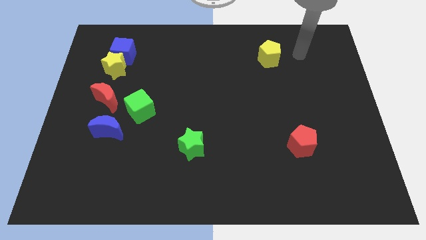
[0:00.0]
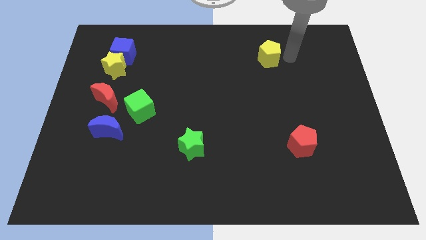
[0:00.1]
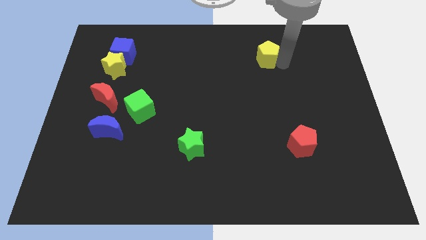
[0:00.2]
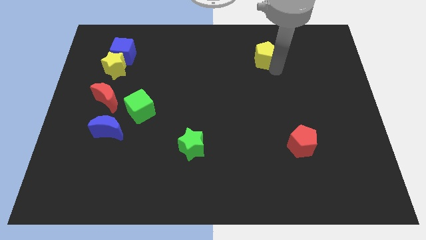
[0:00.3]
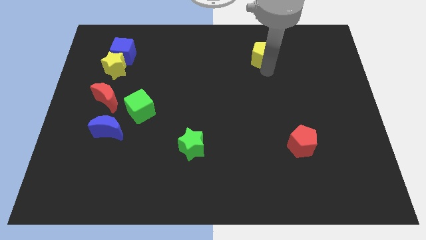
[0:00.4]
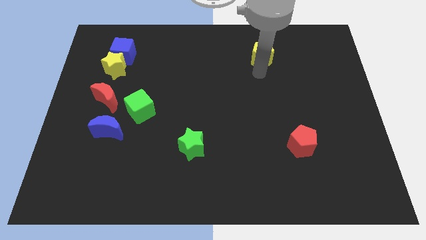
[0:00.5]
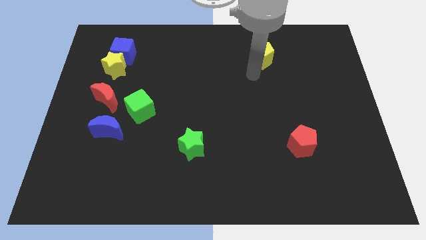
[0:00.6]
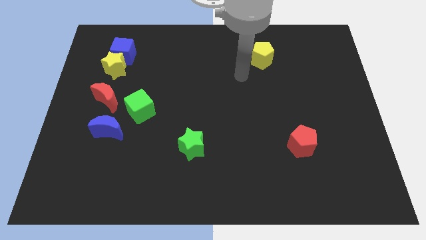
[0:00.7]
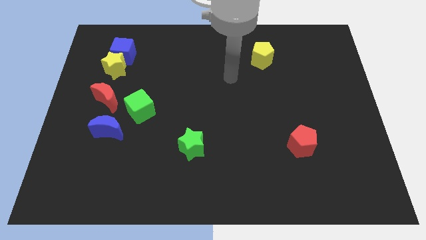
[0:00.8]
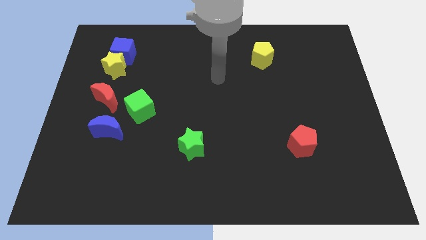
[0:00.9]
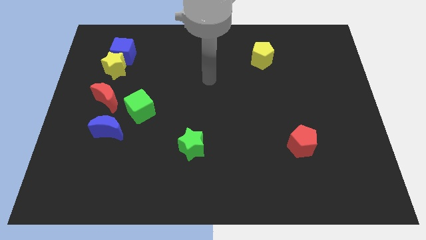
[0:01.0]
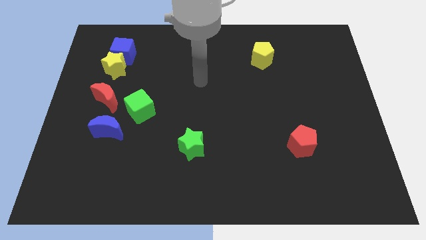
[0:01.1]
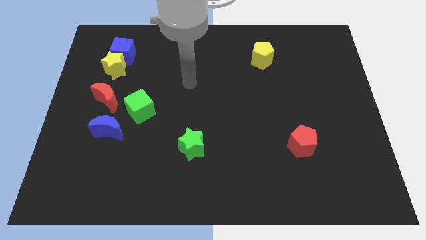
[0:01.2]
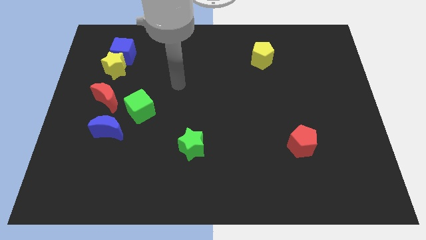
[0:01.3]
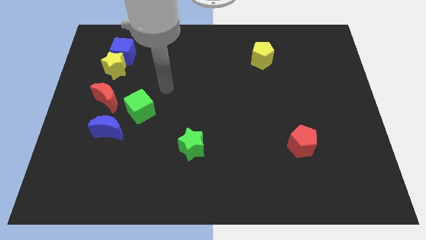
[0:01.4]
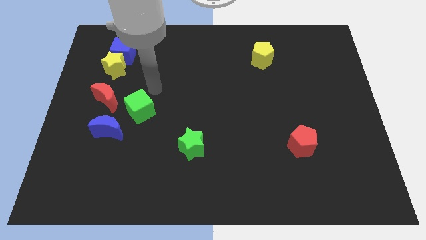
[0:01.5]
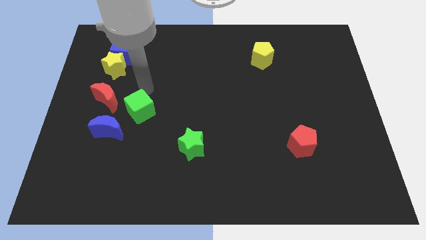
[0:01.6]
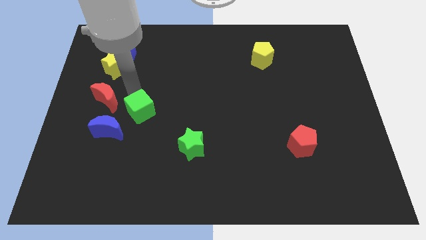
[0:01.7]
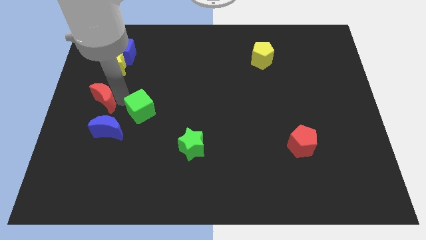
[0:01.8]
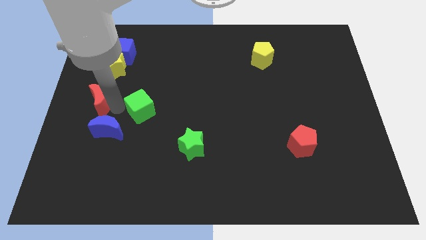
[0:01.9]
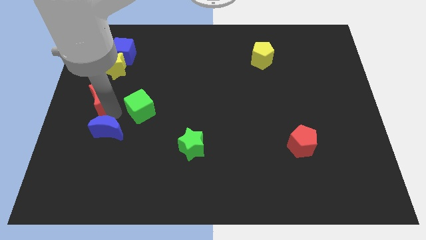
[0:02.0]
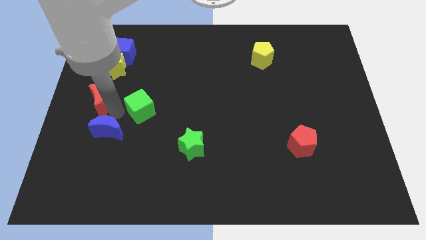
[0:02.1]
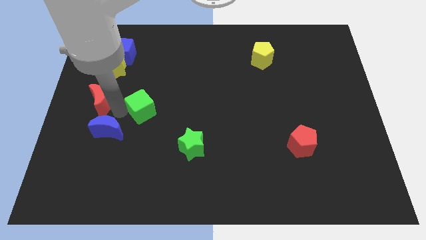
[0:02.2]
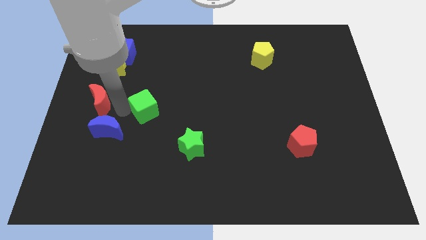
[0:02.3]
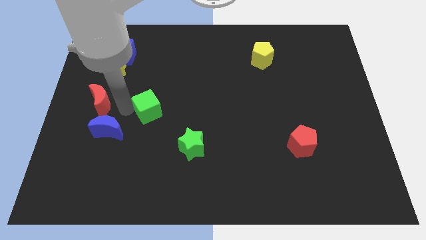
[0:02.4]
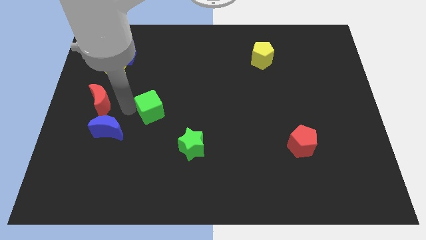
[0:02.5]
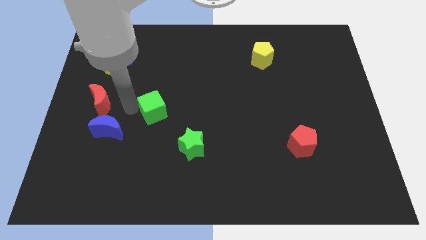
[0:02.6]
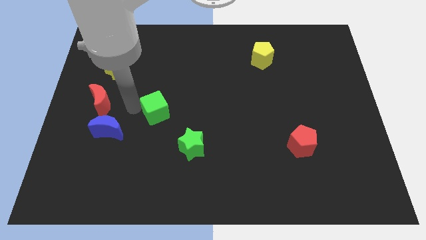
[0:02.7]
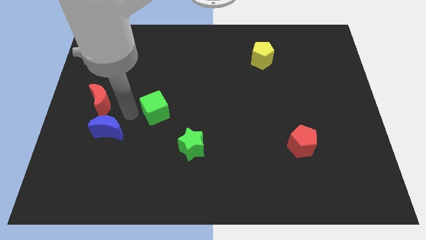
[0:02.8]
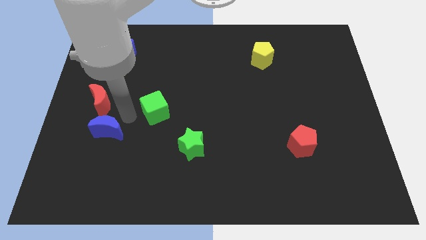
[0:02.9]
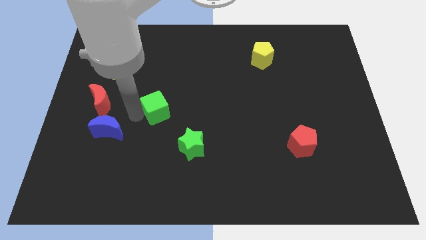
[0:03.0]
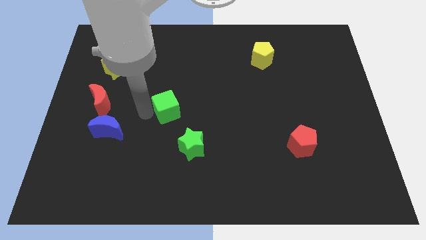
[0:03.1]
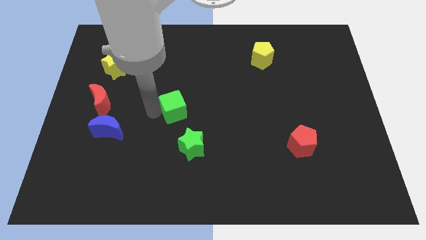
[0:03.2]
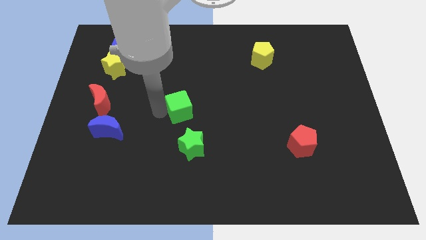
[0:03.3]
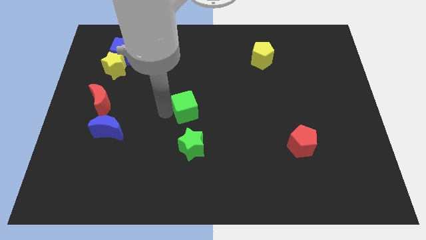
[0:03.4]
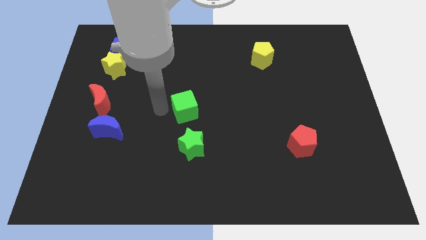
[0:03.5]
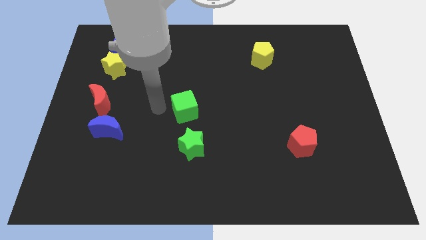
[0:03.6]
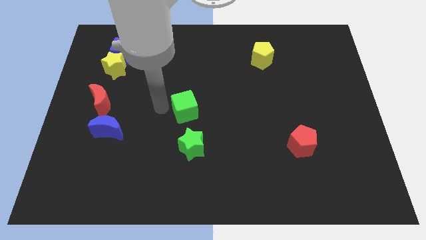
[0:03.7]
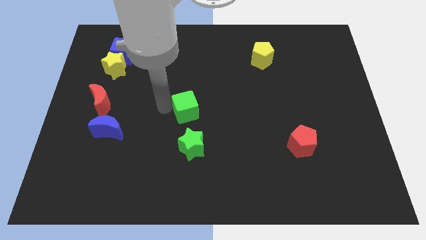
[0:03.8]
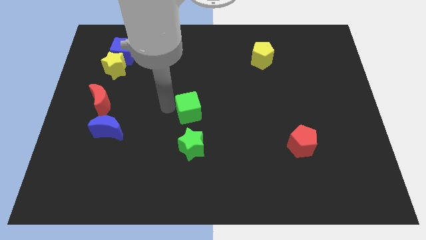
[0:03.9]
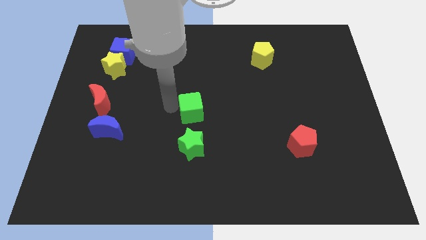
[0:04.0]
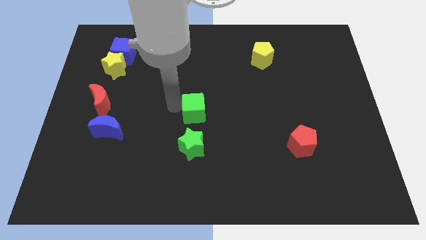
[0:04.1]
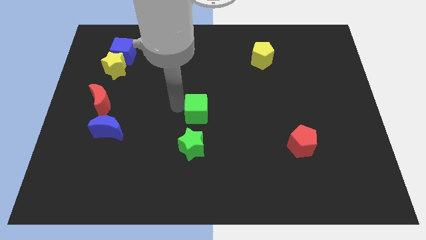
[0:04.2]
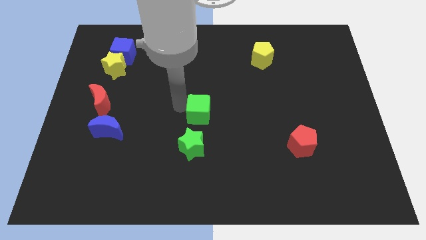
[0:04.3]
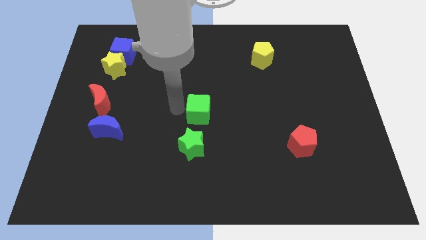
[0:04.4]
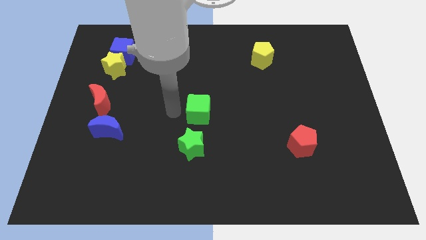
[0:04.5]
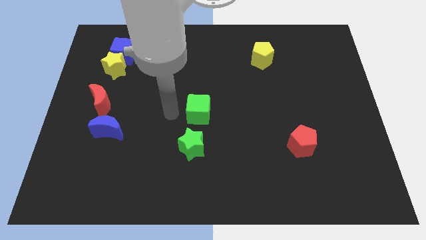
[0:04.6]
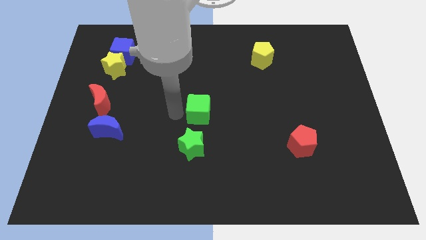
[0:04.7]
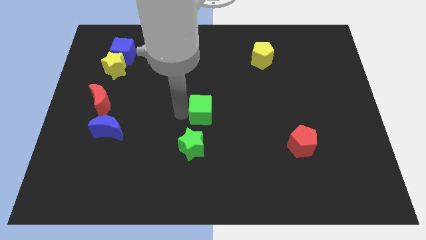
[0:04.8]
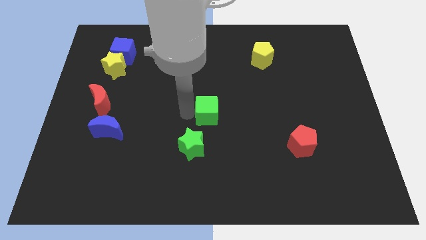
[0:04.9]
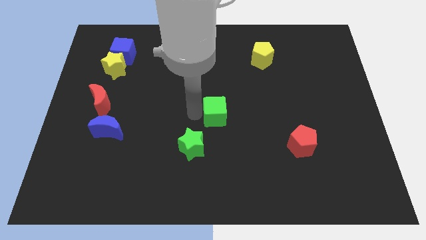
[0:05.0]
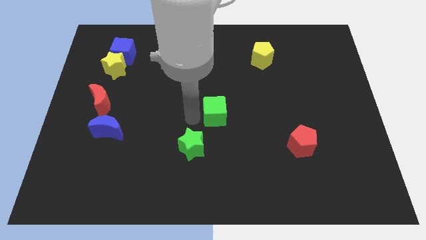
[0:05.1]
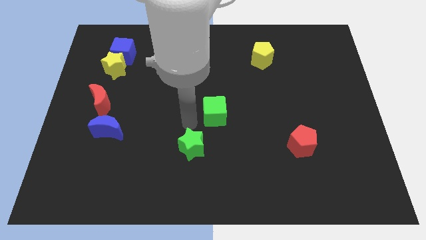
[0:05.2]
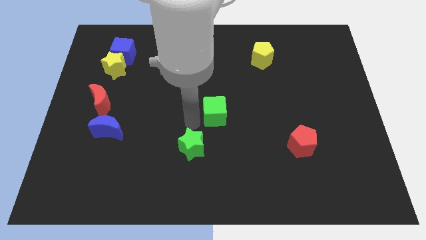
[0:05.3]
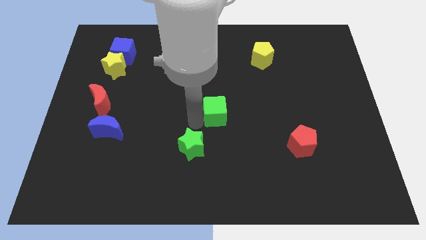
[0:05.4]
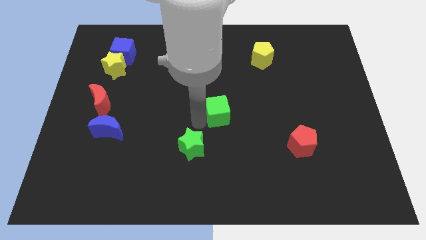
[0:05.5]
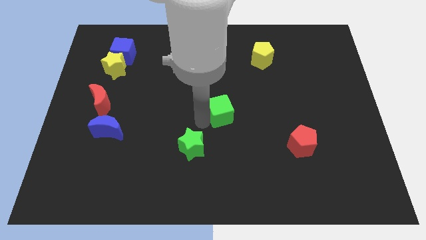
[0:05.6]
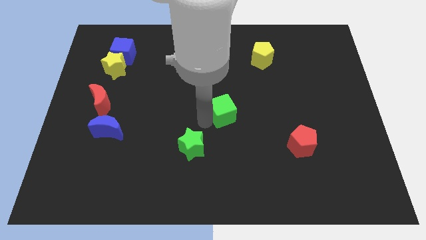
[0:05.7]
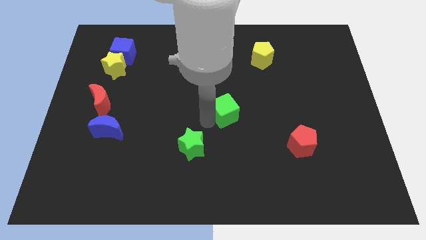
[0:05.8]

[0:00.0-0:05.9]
move the green cube to the right

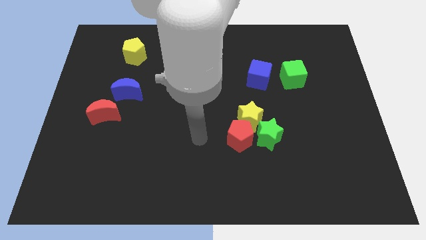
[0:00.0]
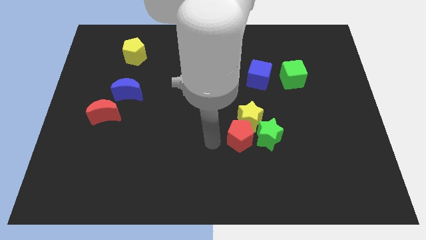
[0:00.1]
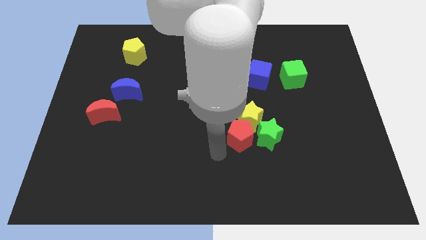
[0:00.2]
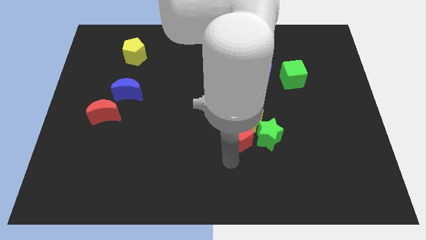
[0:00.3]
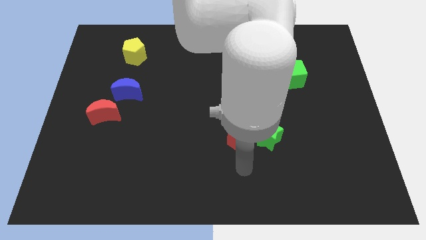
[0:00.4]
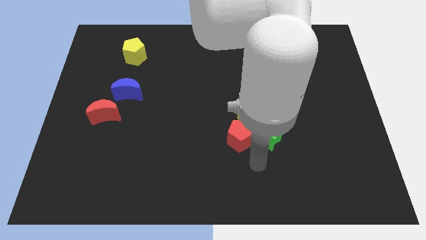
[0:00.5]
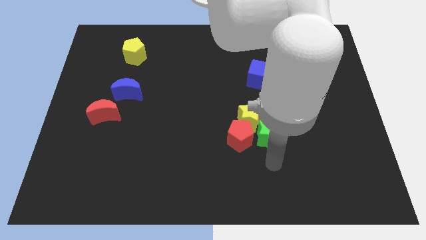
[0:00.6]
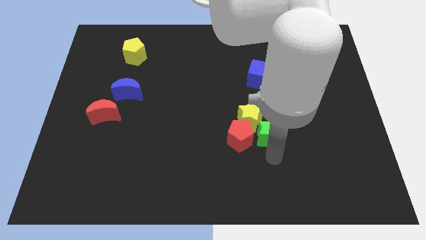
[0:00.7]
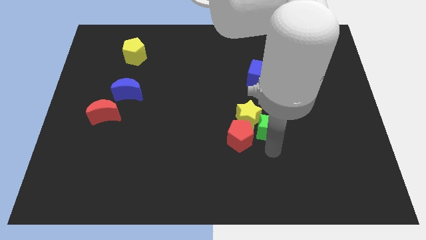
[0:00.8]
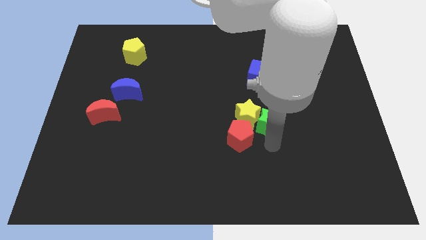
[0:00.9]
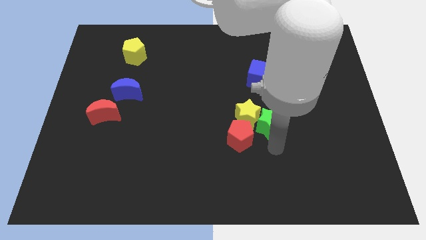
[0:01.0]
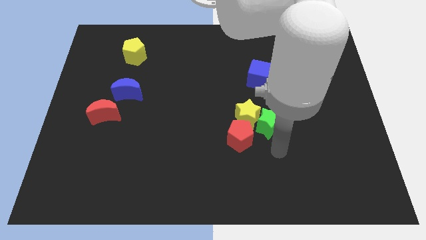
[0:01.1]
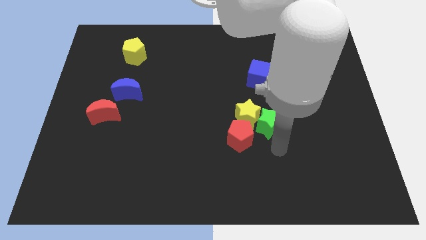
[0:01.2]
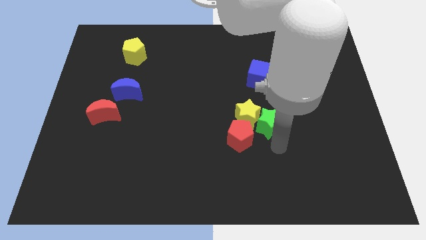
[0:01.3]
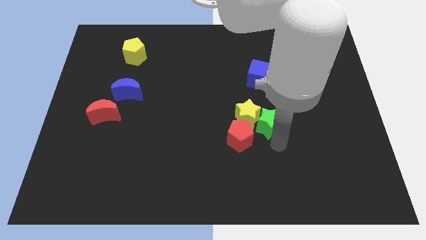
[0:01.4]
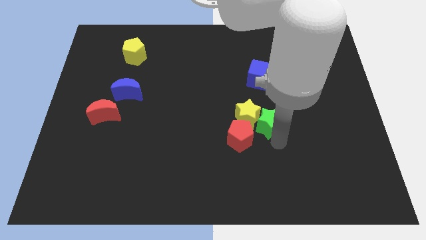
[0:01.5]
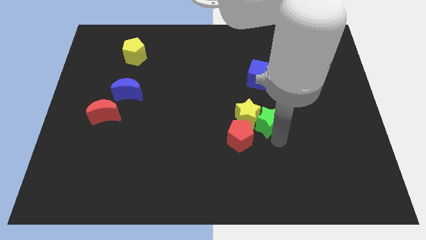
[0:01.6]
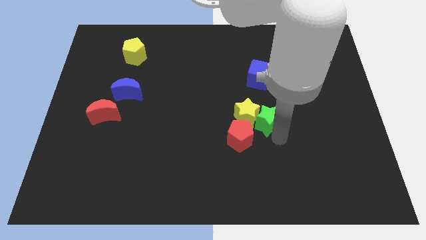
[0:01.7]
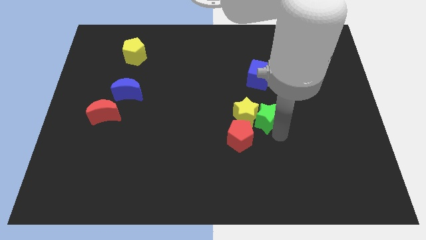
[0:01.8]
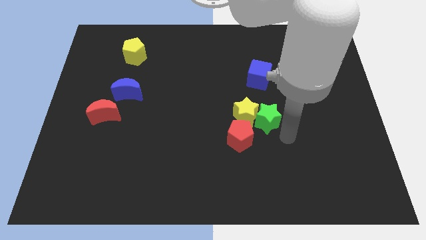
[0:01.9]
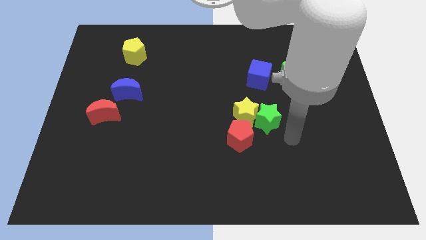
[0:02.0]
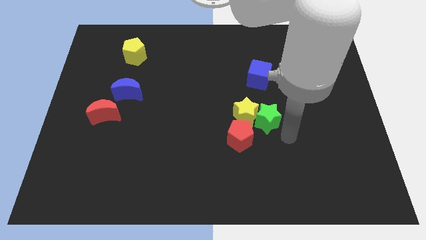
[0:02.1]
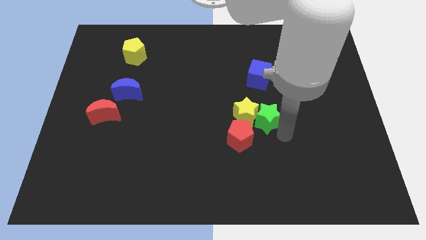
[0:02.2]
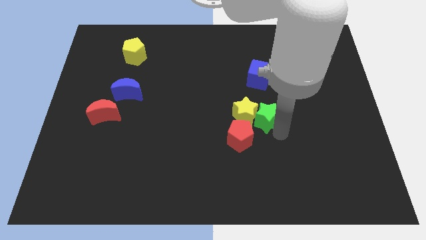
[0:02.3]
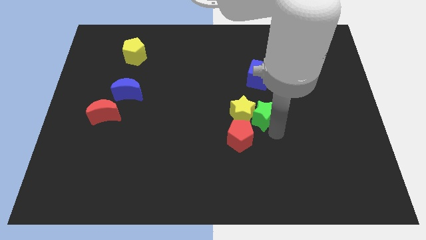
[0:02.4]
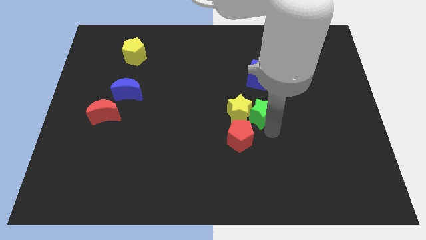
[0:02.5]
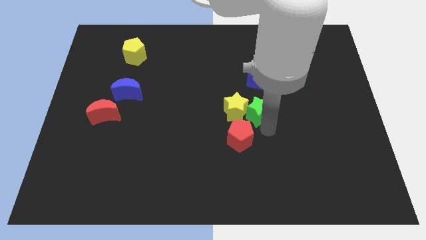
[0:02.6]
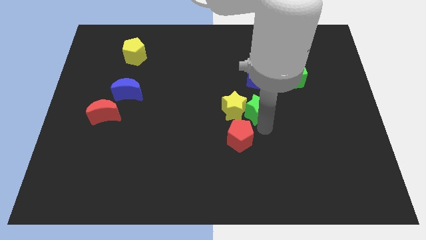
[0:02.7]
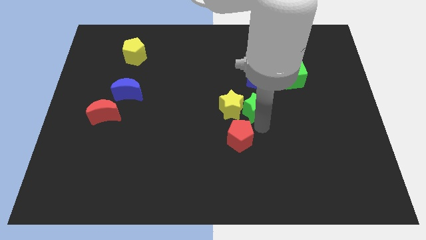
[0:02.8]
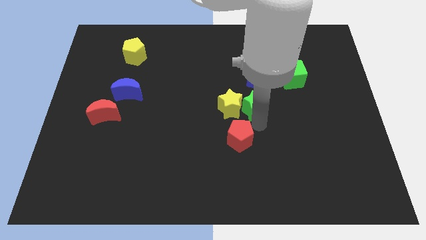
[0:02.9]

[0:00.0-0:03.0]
push the green star a bit upwards and then left
